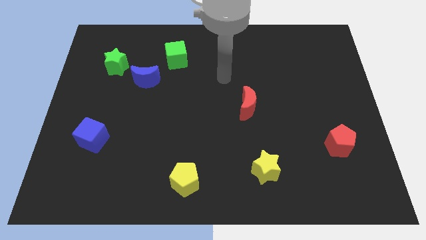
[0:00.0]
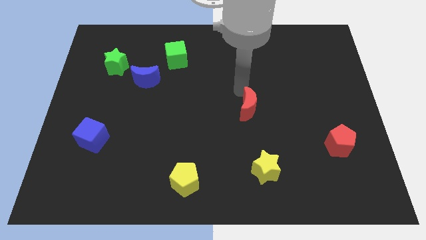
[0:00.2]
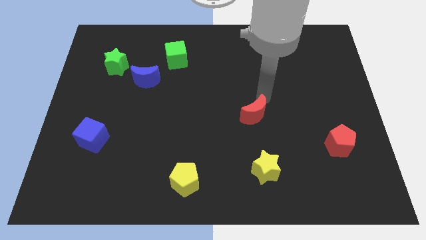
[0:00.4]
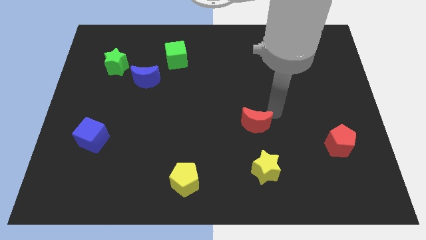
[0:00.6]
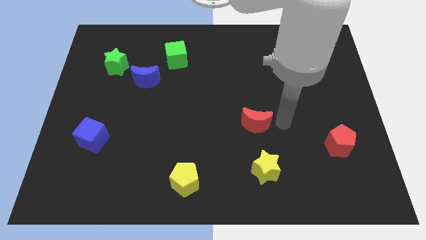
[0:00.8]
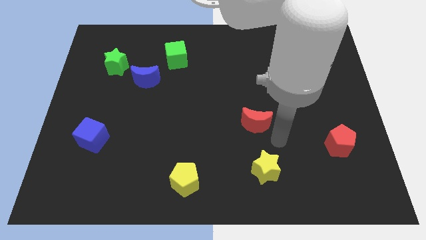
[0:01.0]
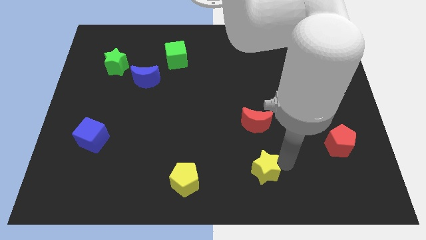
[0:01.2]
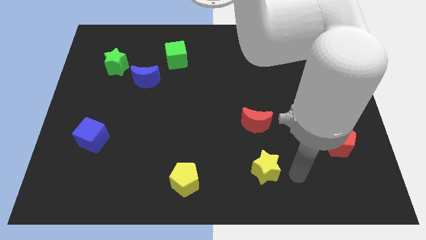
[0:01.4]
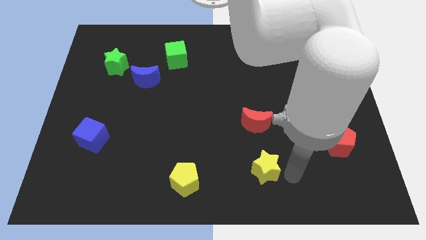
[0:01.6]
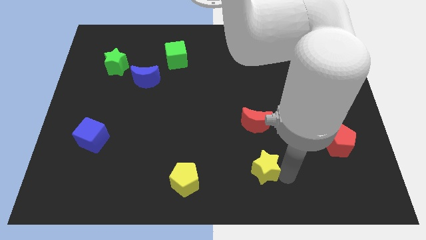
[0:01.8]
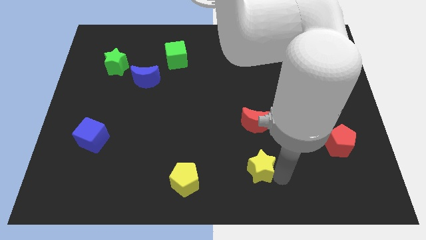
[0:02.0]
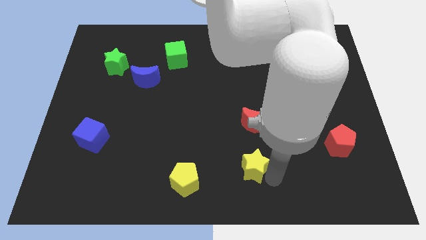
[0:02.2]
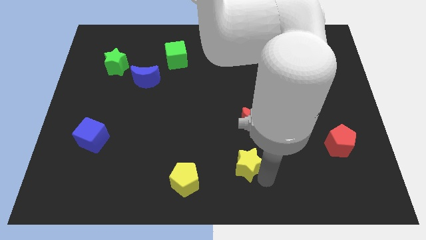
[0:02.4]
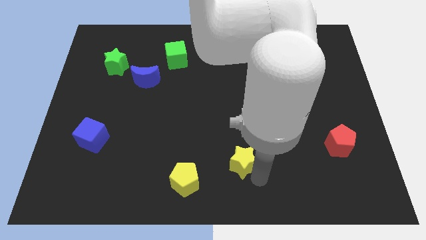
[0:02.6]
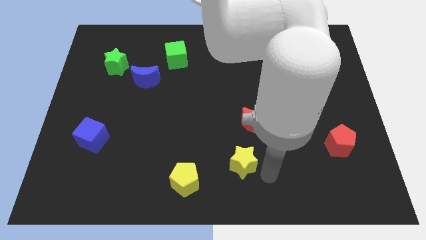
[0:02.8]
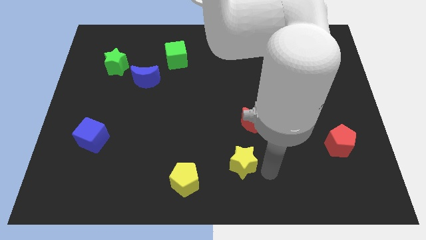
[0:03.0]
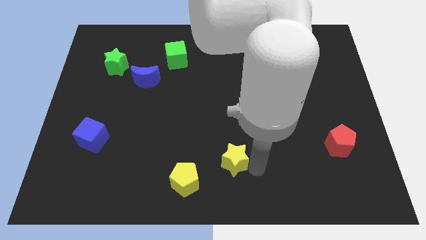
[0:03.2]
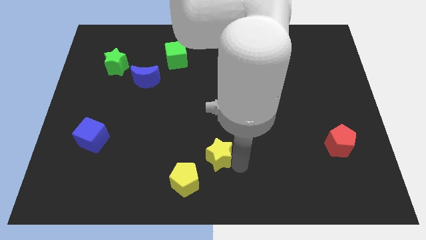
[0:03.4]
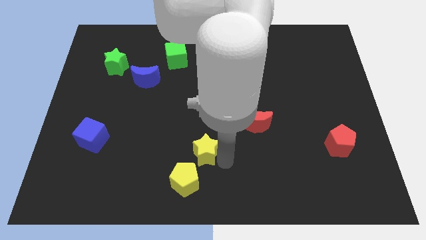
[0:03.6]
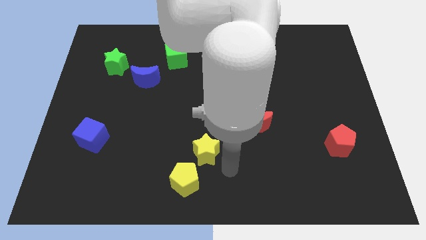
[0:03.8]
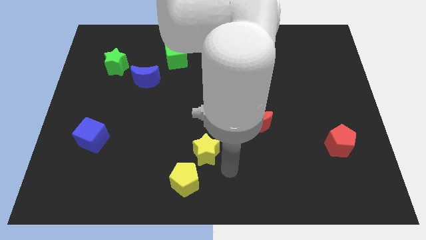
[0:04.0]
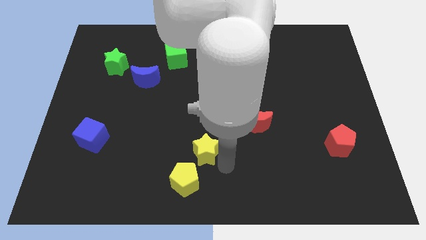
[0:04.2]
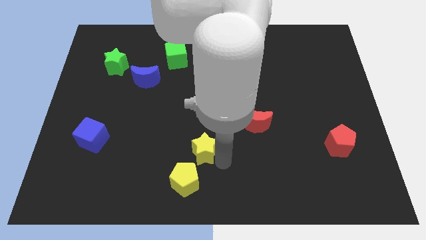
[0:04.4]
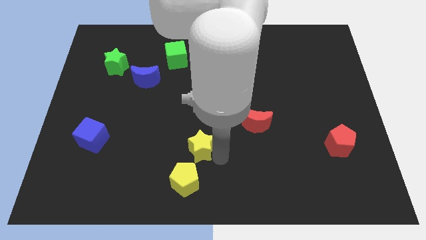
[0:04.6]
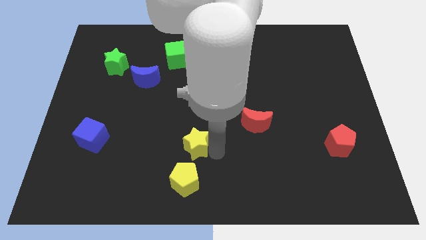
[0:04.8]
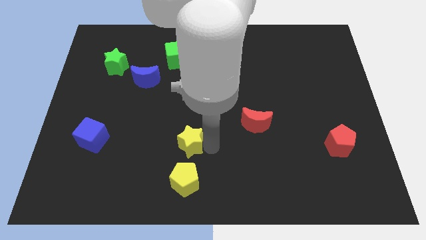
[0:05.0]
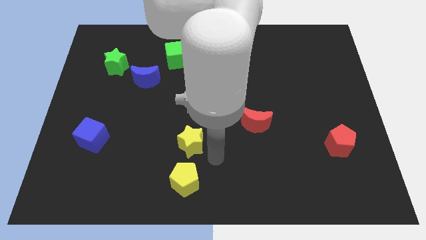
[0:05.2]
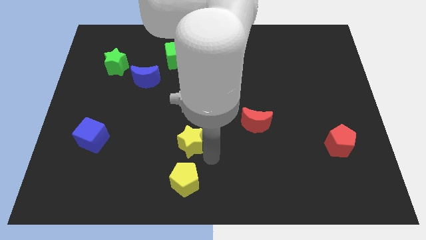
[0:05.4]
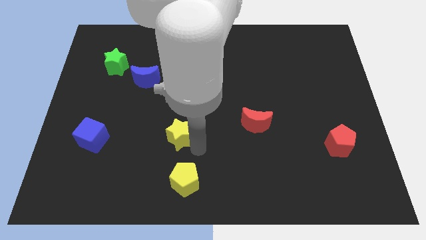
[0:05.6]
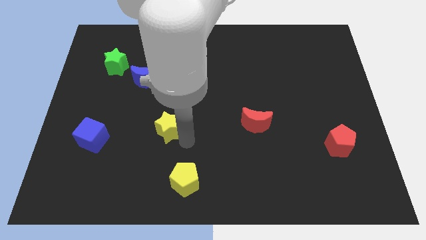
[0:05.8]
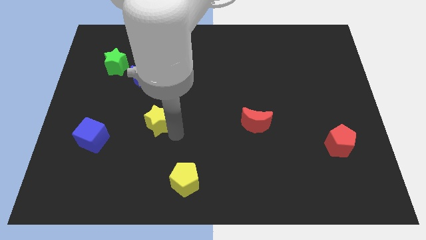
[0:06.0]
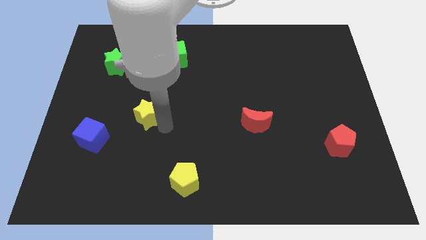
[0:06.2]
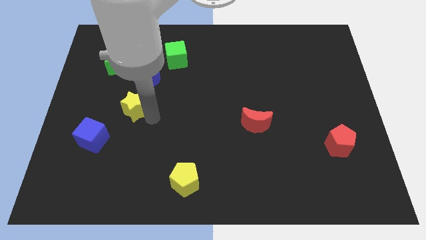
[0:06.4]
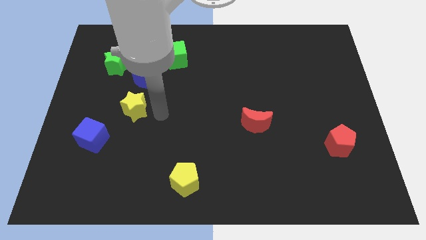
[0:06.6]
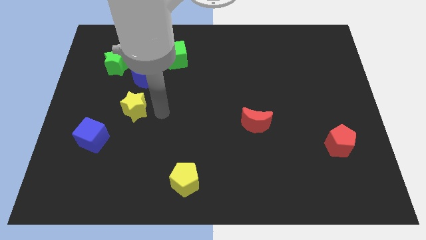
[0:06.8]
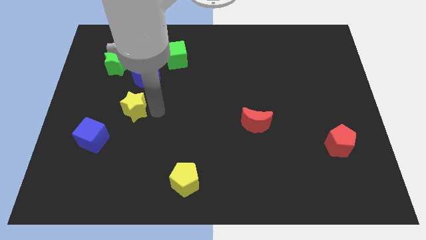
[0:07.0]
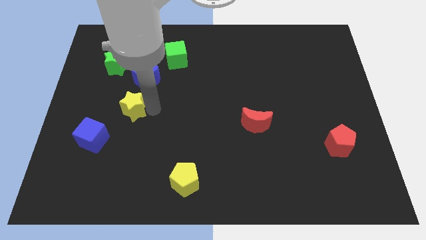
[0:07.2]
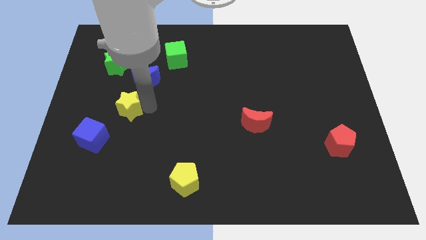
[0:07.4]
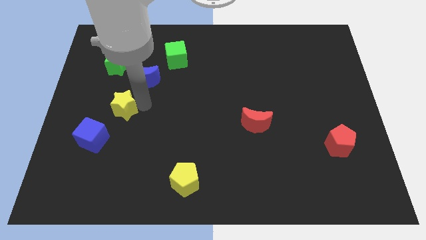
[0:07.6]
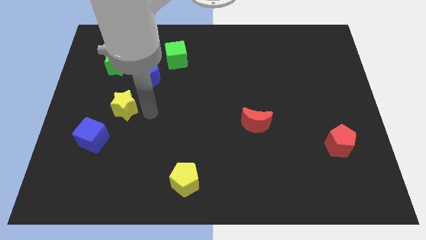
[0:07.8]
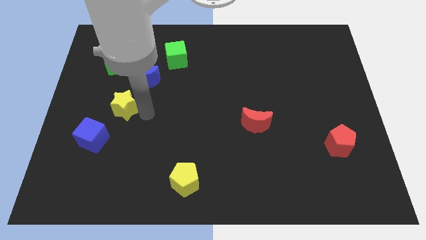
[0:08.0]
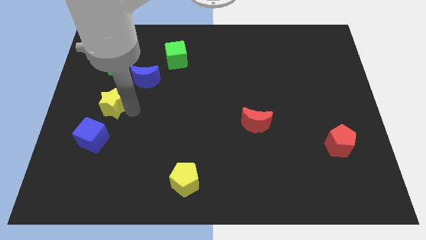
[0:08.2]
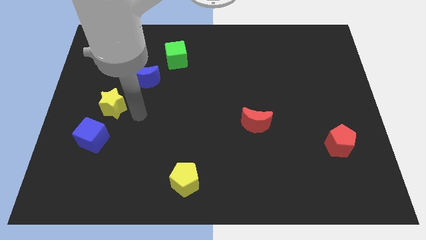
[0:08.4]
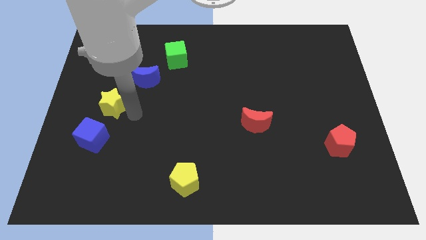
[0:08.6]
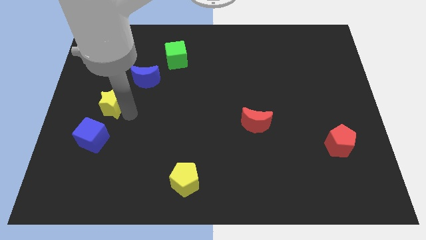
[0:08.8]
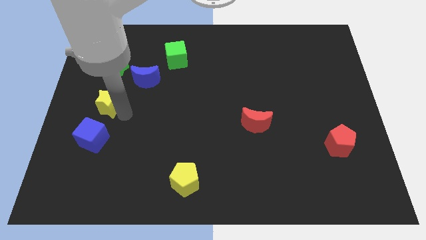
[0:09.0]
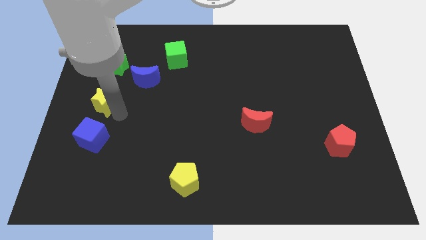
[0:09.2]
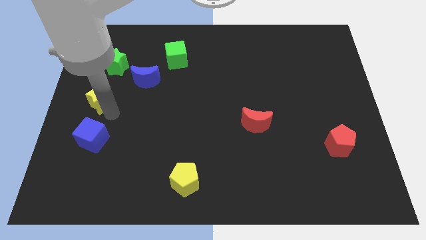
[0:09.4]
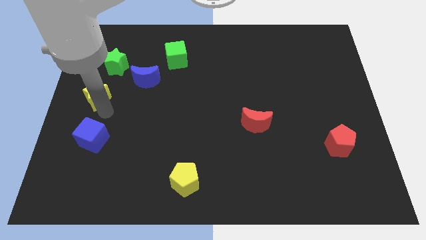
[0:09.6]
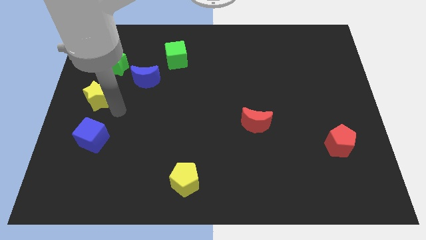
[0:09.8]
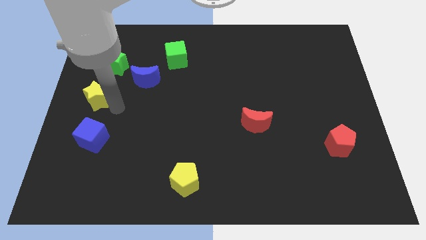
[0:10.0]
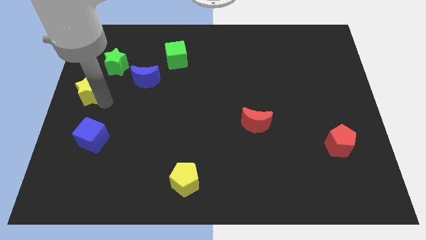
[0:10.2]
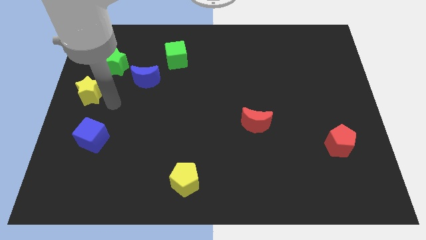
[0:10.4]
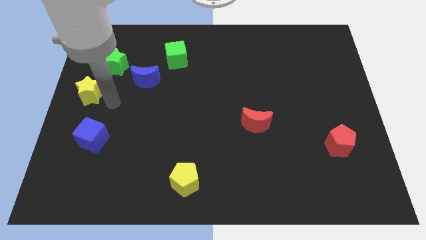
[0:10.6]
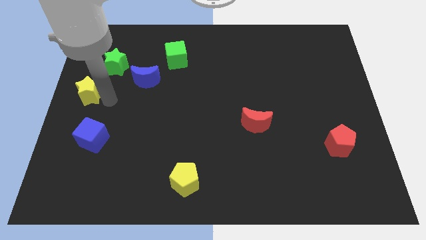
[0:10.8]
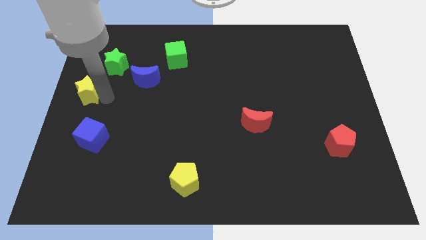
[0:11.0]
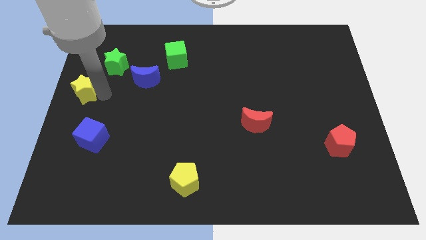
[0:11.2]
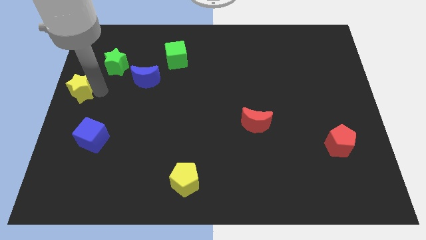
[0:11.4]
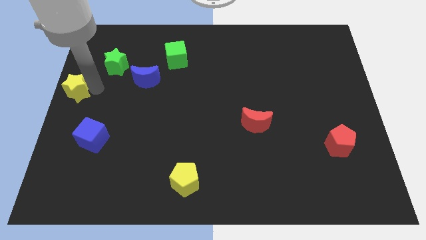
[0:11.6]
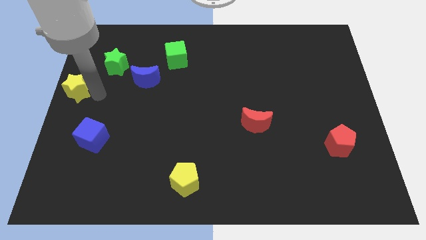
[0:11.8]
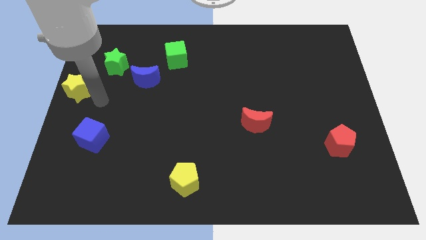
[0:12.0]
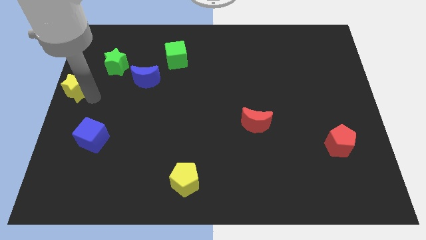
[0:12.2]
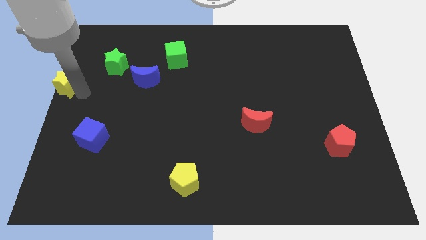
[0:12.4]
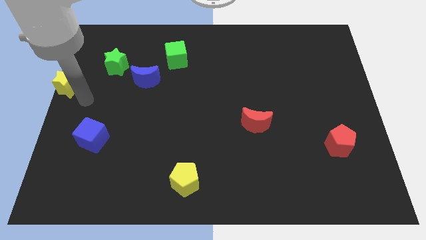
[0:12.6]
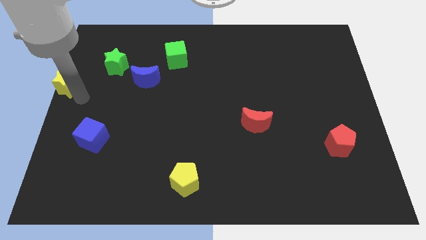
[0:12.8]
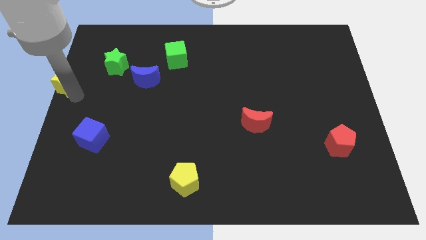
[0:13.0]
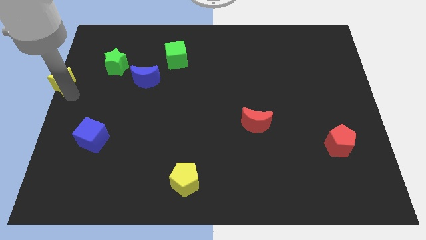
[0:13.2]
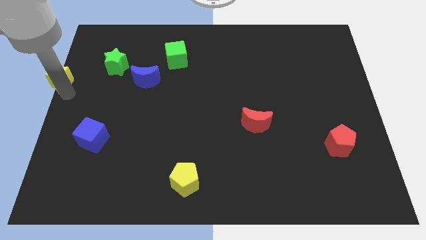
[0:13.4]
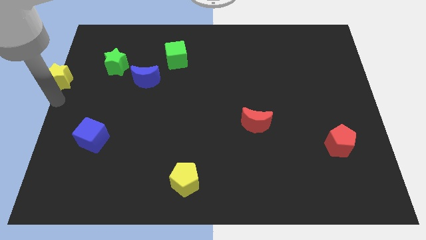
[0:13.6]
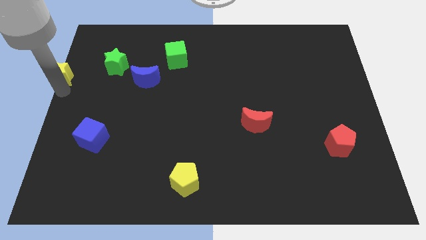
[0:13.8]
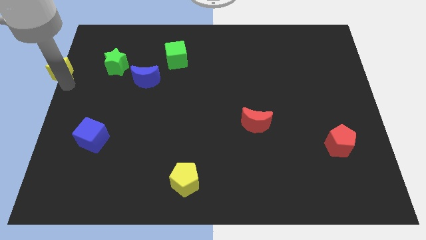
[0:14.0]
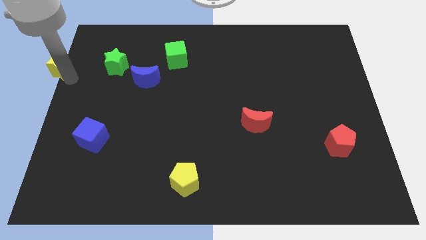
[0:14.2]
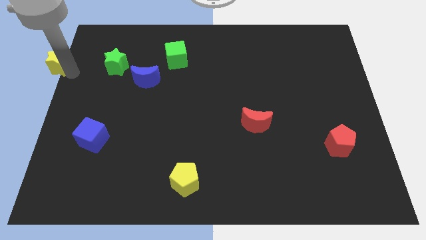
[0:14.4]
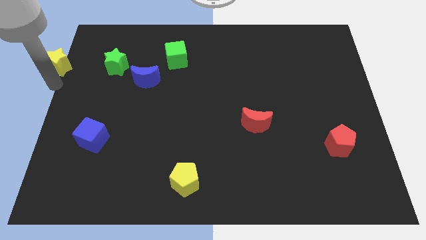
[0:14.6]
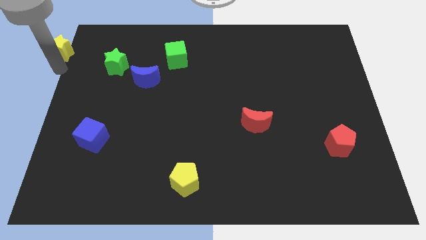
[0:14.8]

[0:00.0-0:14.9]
push the yellow star to the top left corner
